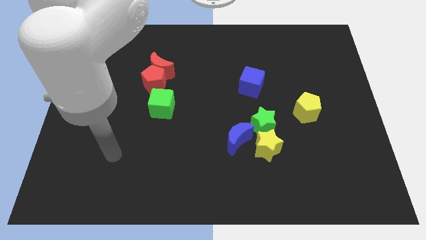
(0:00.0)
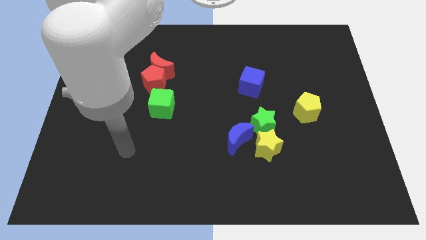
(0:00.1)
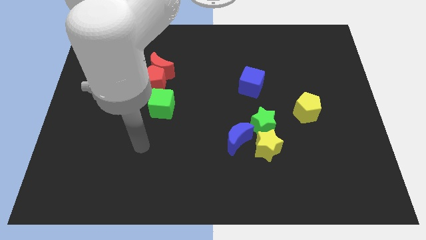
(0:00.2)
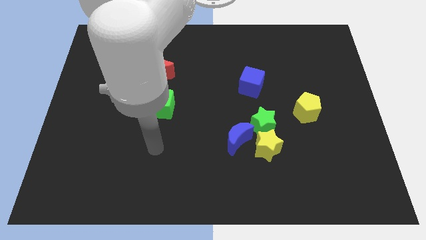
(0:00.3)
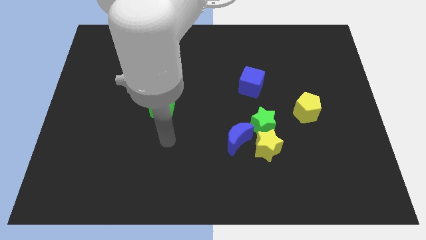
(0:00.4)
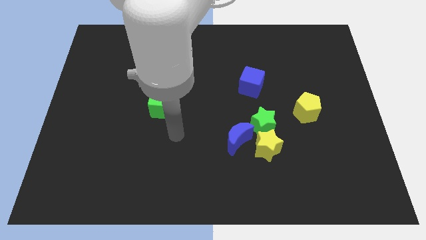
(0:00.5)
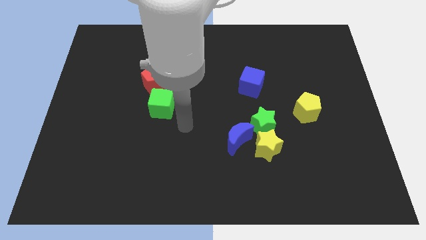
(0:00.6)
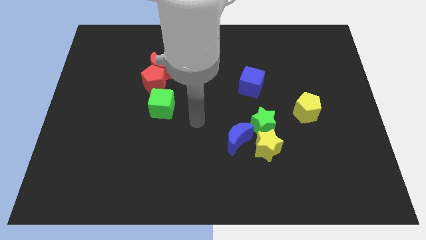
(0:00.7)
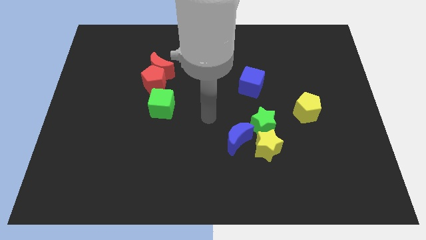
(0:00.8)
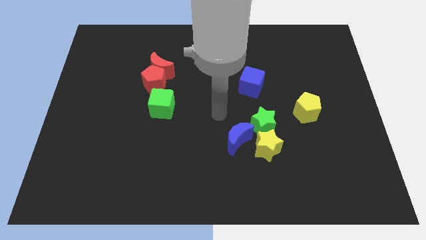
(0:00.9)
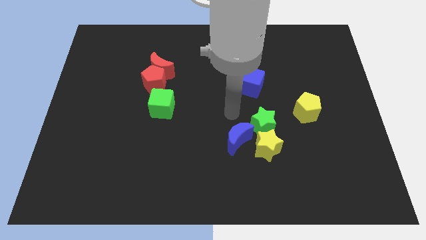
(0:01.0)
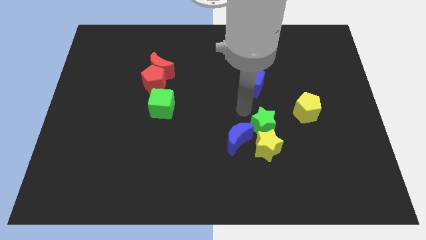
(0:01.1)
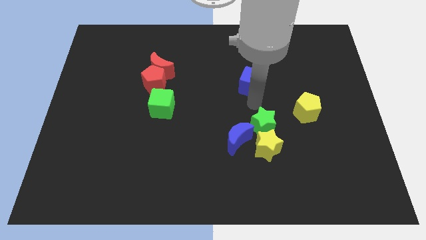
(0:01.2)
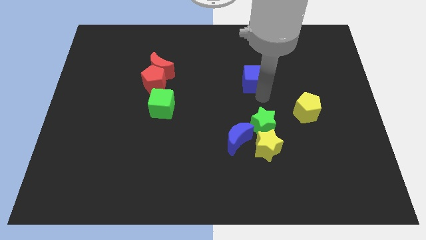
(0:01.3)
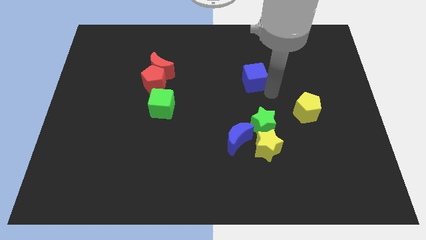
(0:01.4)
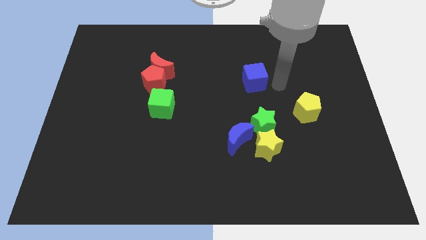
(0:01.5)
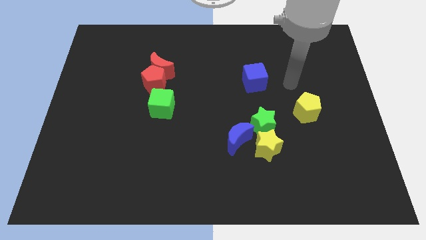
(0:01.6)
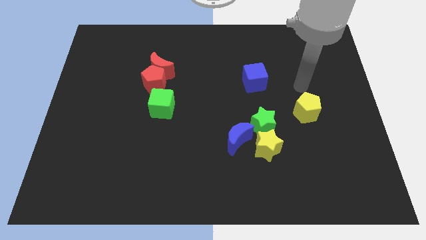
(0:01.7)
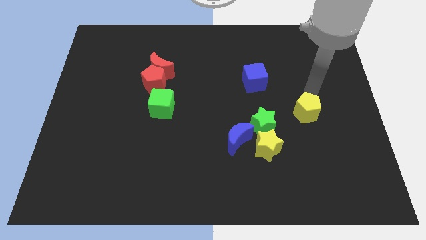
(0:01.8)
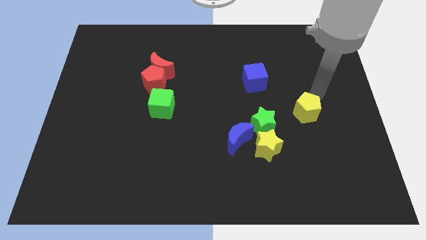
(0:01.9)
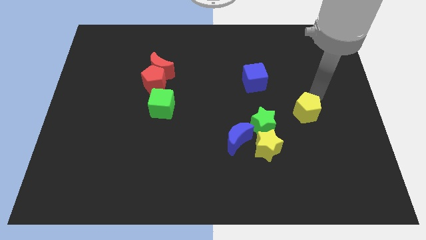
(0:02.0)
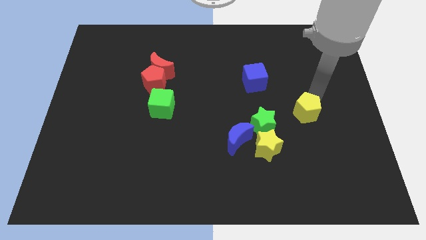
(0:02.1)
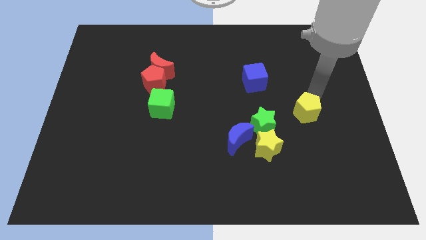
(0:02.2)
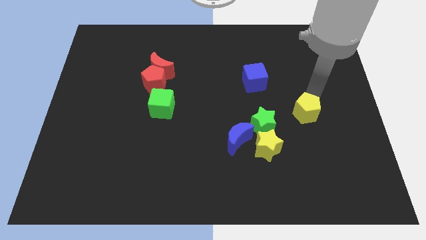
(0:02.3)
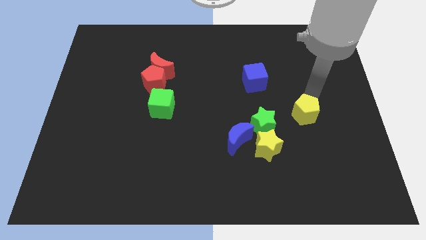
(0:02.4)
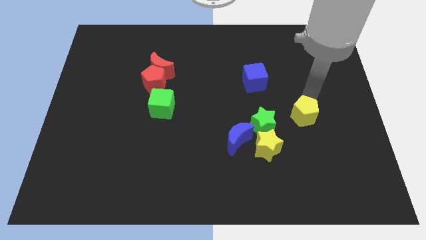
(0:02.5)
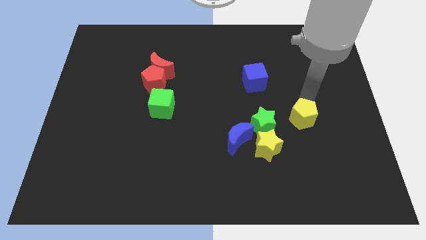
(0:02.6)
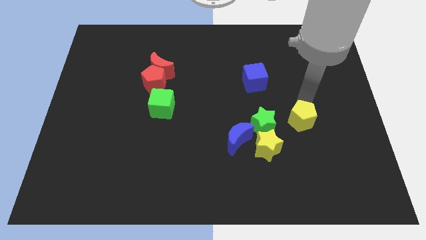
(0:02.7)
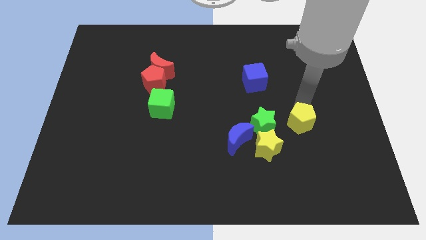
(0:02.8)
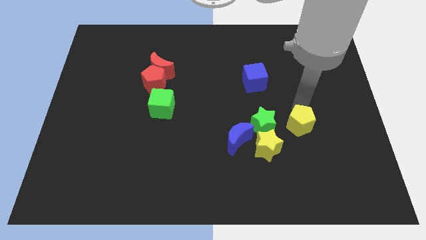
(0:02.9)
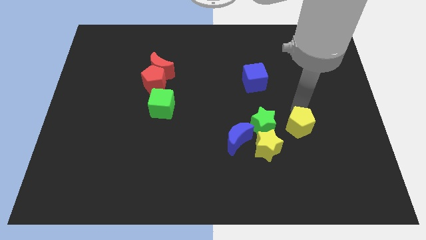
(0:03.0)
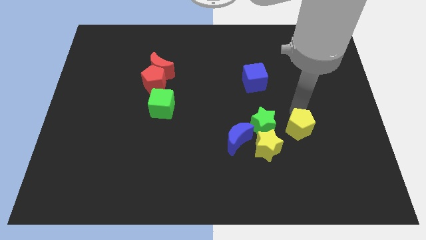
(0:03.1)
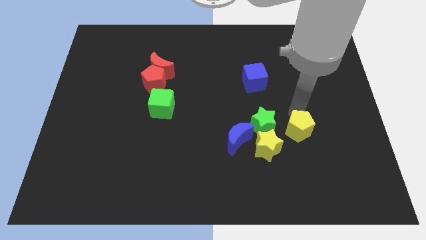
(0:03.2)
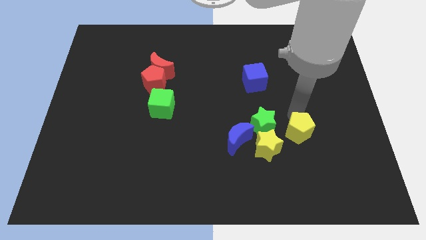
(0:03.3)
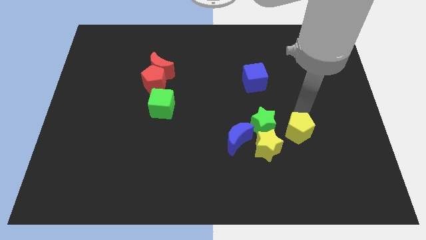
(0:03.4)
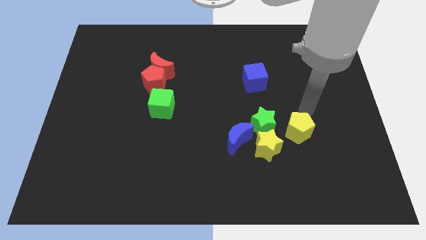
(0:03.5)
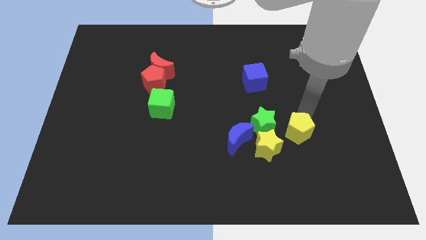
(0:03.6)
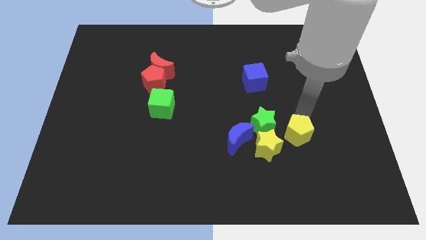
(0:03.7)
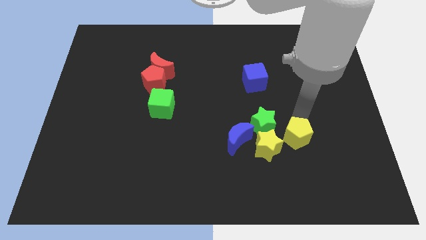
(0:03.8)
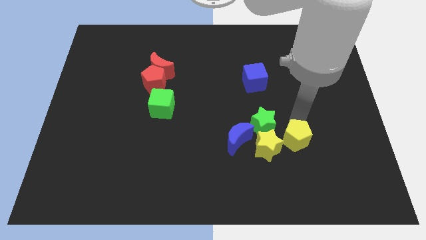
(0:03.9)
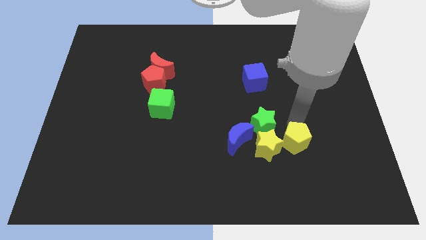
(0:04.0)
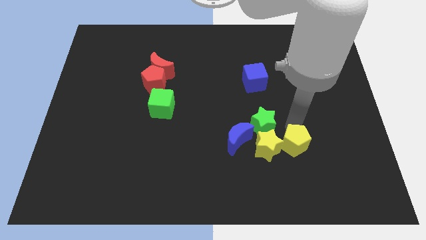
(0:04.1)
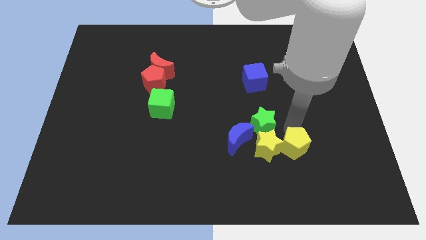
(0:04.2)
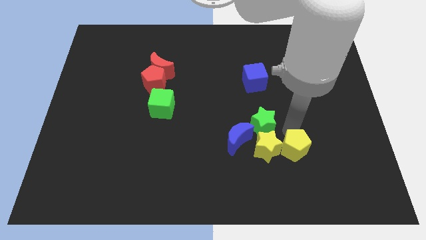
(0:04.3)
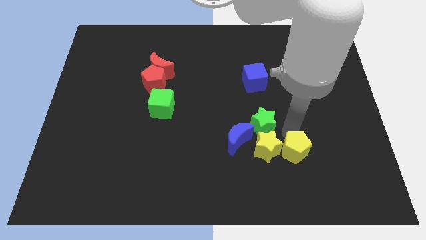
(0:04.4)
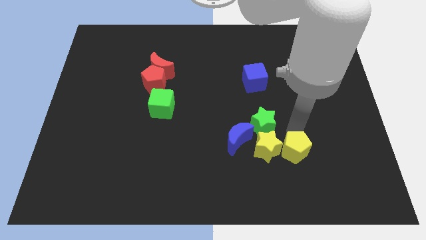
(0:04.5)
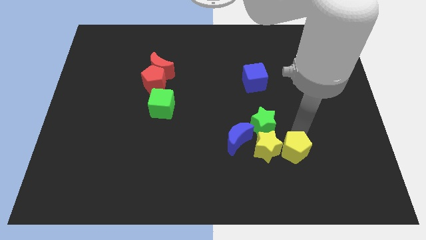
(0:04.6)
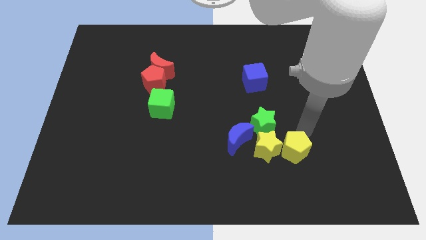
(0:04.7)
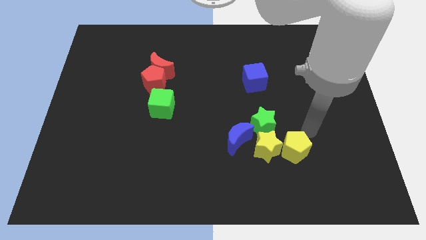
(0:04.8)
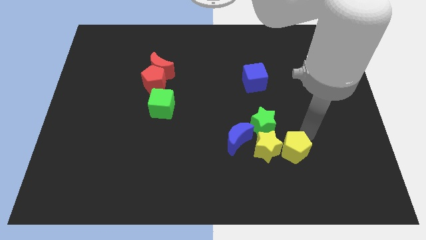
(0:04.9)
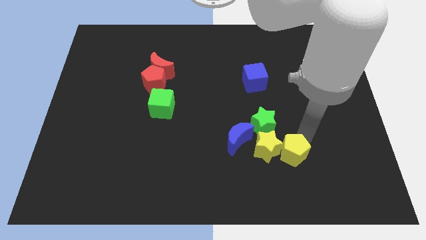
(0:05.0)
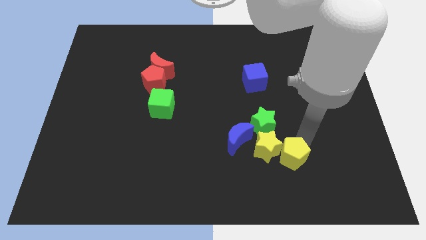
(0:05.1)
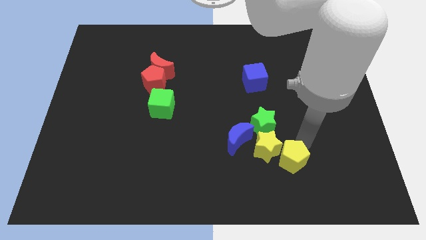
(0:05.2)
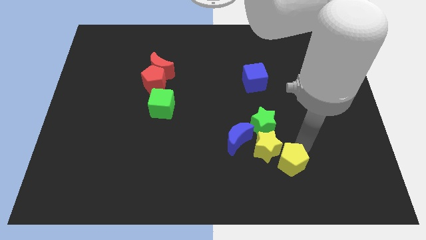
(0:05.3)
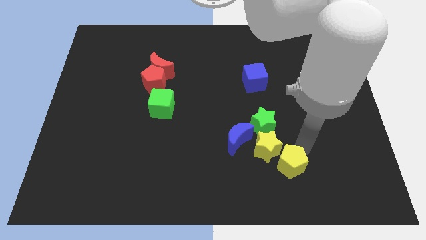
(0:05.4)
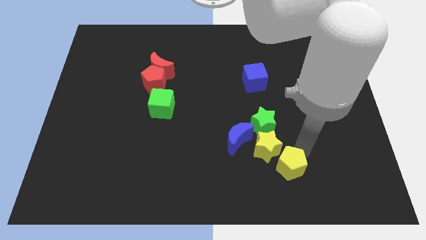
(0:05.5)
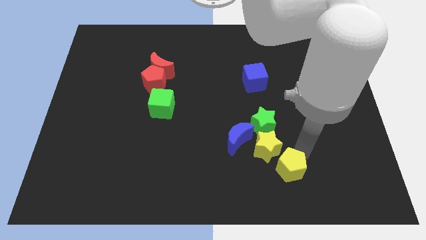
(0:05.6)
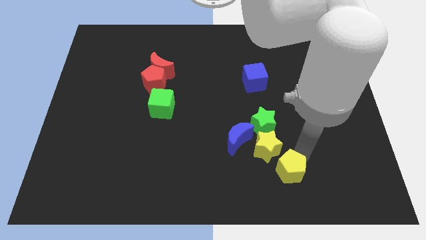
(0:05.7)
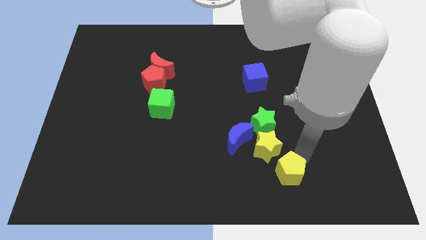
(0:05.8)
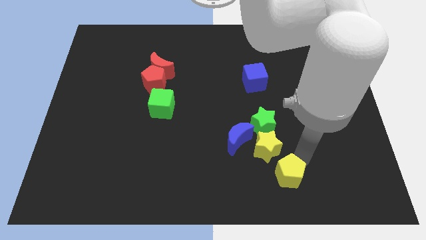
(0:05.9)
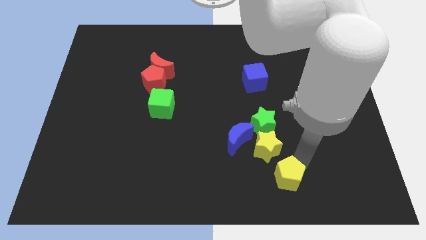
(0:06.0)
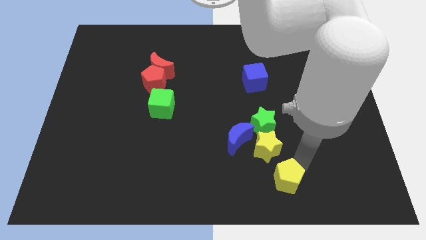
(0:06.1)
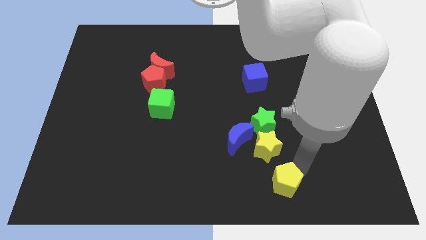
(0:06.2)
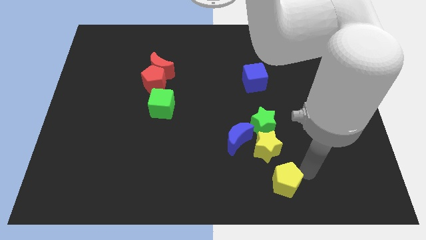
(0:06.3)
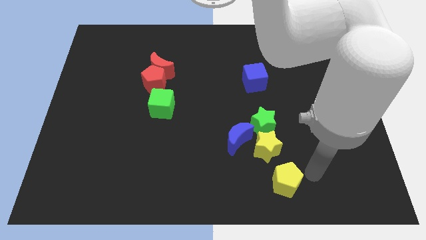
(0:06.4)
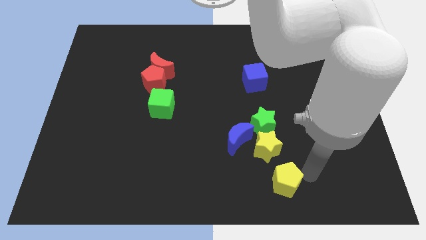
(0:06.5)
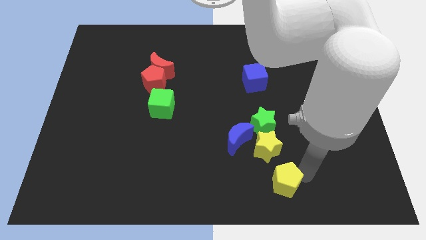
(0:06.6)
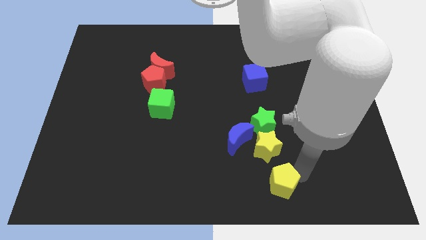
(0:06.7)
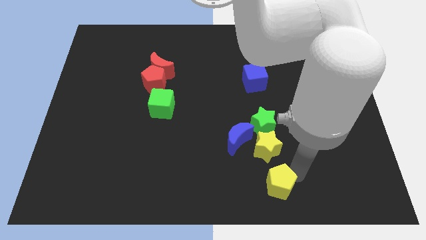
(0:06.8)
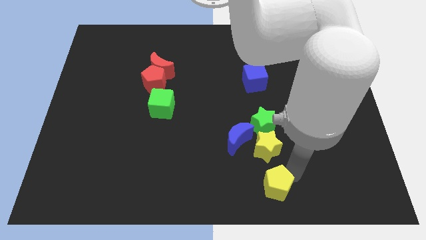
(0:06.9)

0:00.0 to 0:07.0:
move the yellow pentagon to the bottom
